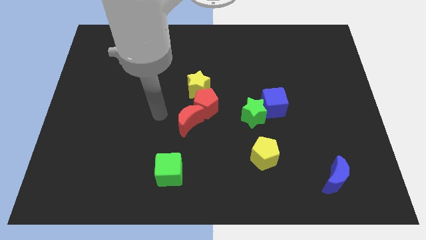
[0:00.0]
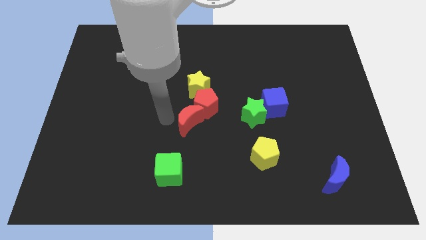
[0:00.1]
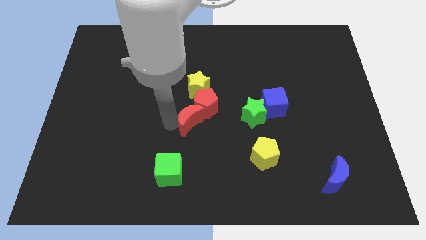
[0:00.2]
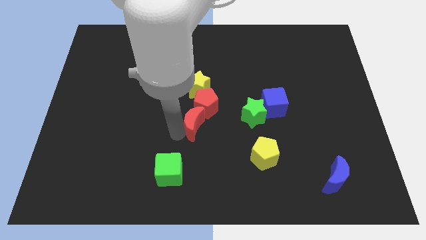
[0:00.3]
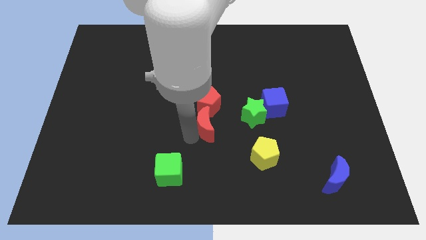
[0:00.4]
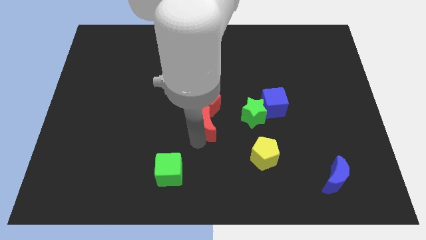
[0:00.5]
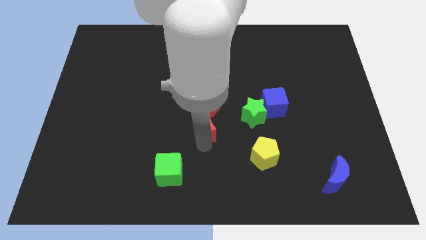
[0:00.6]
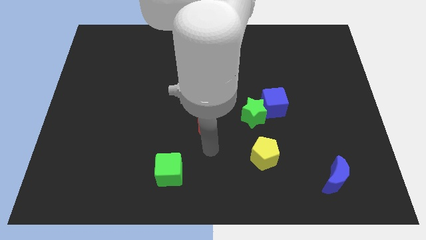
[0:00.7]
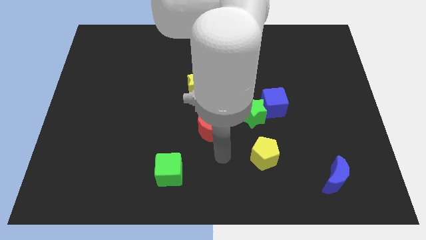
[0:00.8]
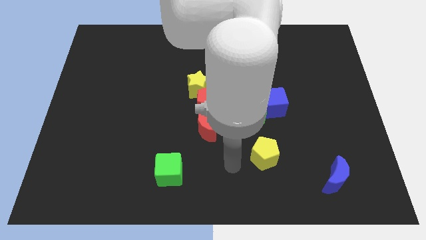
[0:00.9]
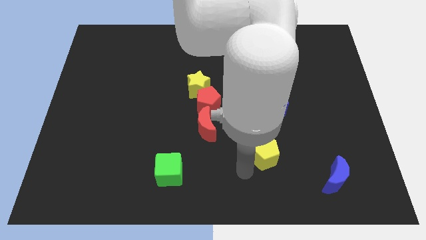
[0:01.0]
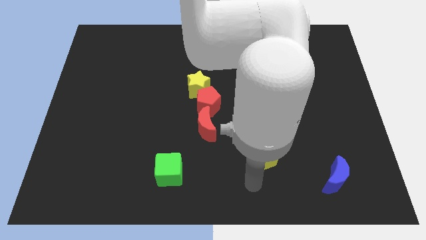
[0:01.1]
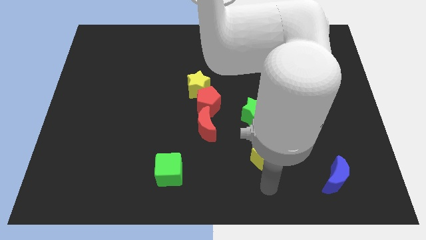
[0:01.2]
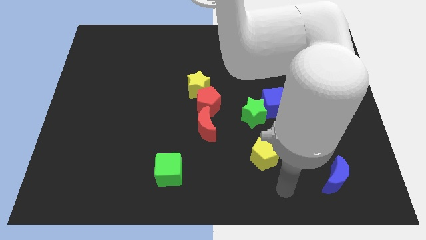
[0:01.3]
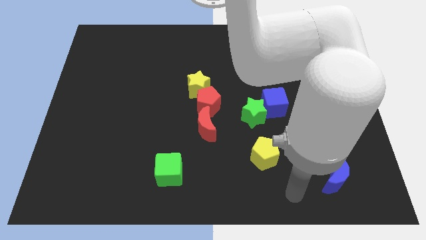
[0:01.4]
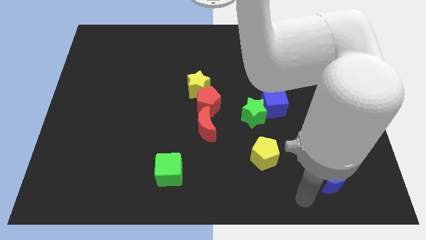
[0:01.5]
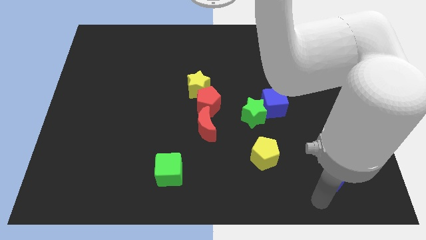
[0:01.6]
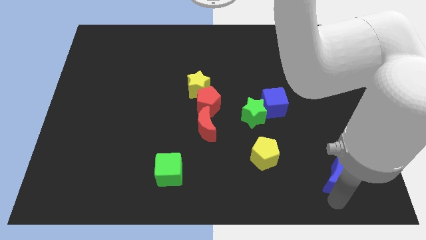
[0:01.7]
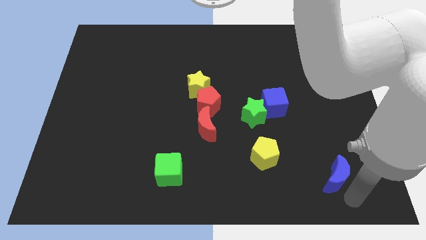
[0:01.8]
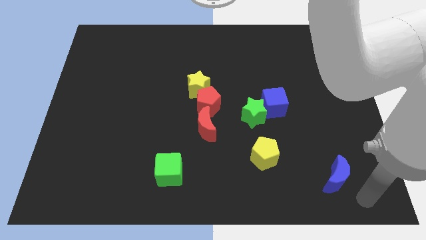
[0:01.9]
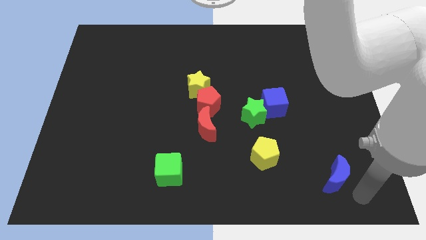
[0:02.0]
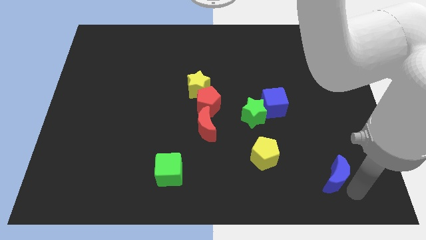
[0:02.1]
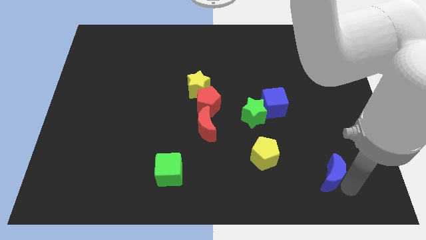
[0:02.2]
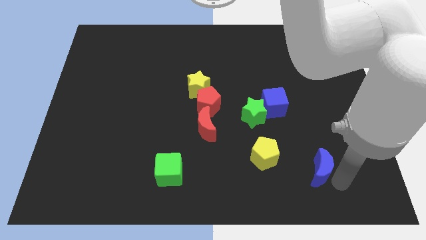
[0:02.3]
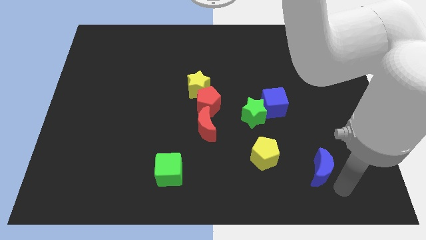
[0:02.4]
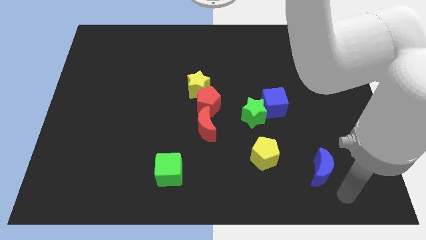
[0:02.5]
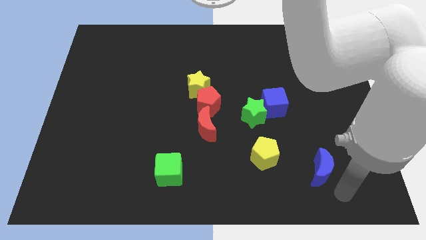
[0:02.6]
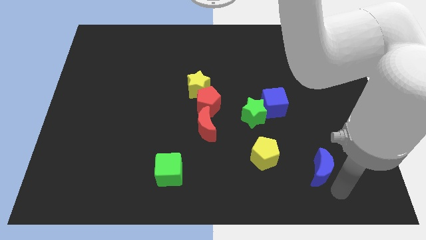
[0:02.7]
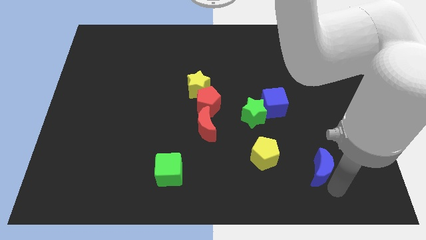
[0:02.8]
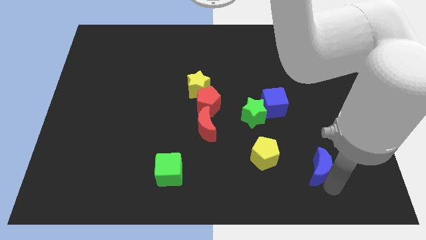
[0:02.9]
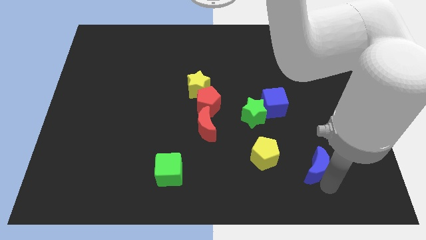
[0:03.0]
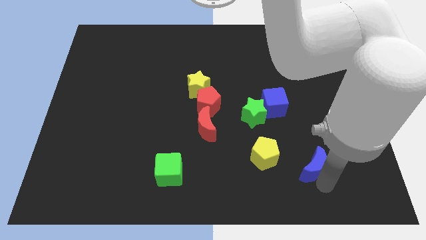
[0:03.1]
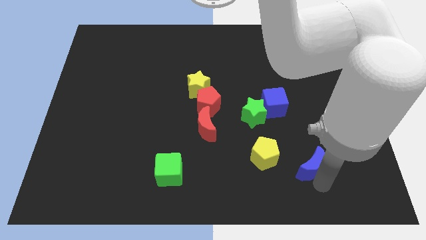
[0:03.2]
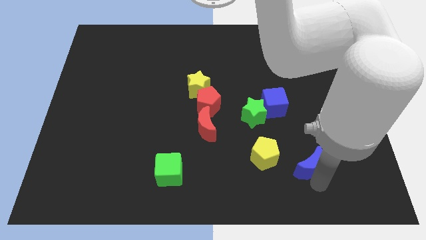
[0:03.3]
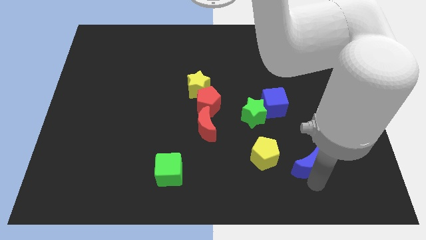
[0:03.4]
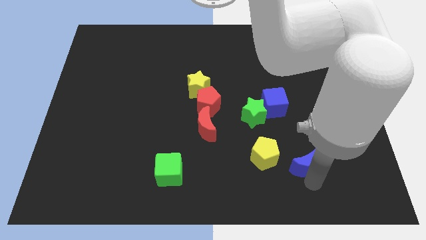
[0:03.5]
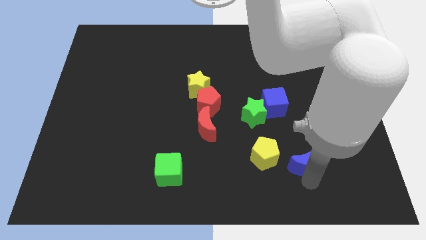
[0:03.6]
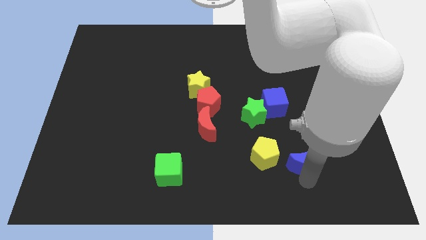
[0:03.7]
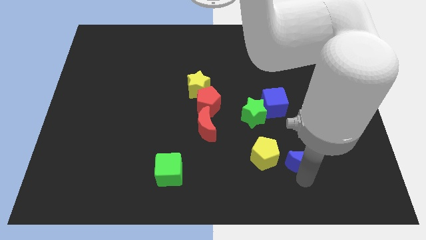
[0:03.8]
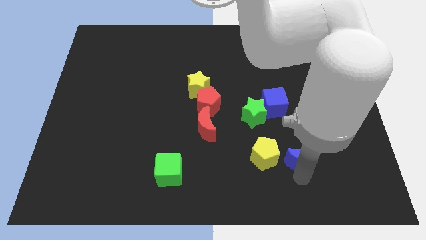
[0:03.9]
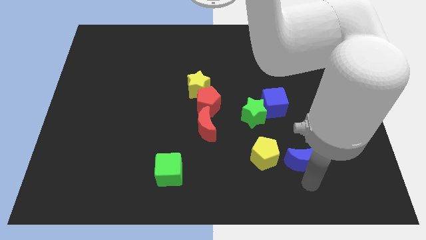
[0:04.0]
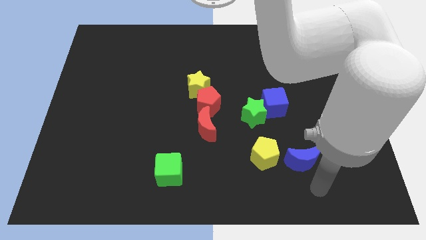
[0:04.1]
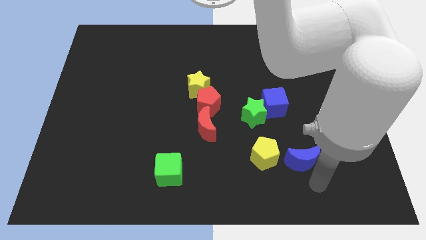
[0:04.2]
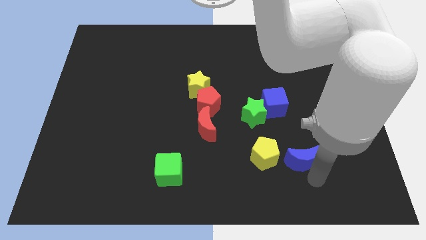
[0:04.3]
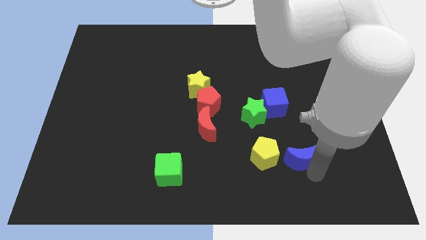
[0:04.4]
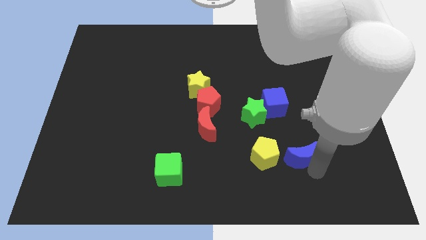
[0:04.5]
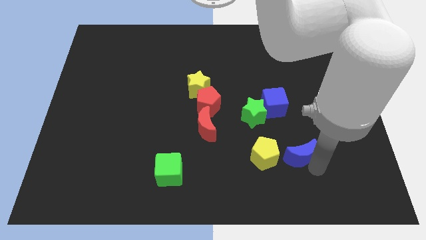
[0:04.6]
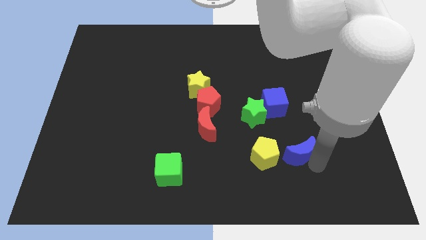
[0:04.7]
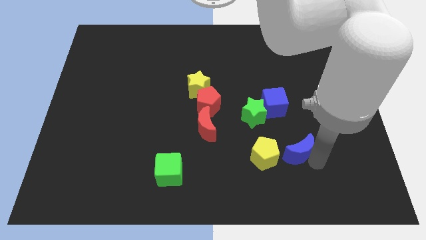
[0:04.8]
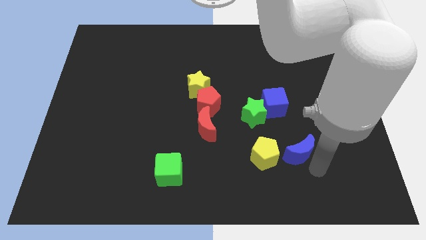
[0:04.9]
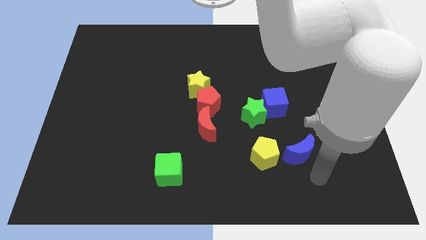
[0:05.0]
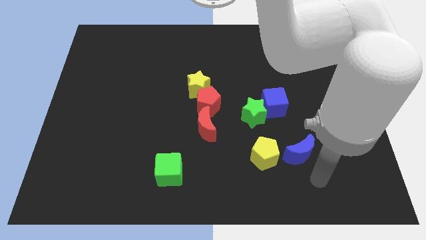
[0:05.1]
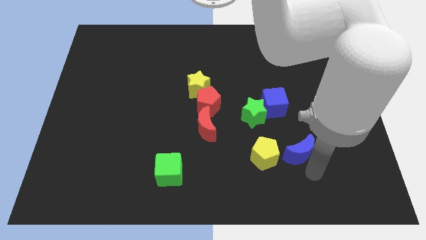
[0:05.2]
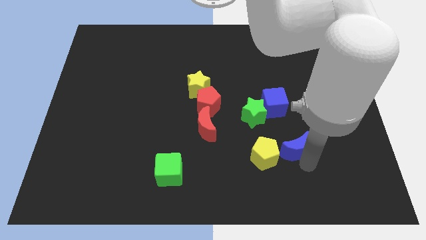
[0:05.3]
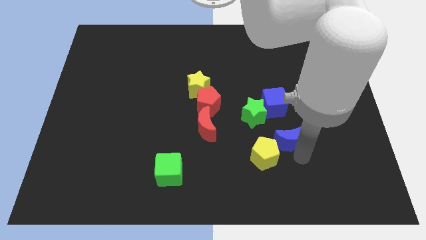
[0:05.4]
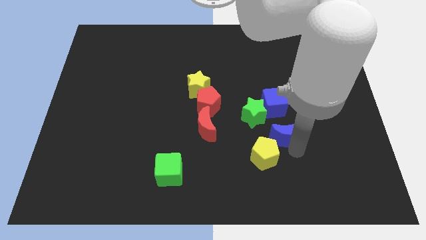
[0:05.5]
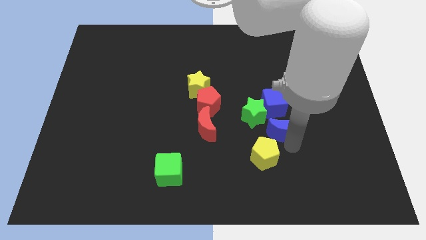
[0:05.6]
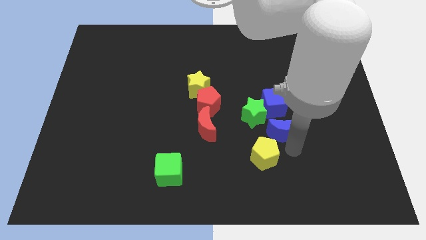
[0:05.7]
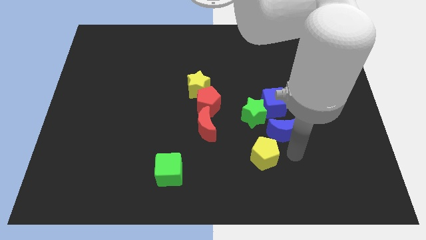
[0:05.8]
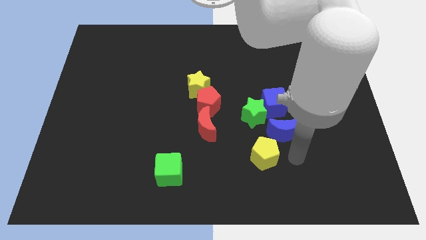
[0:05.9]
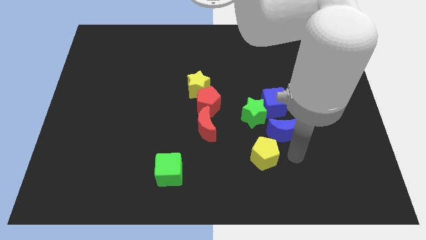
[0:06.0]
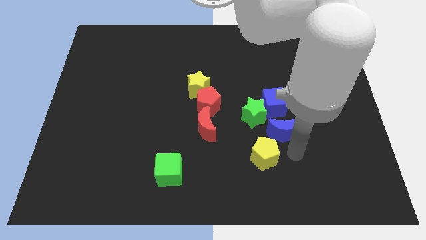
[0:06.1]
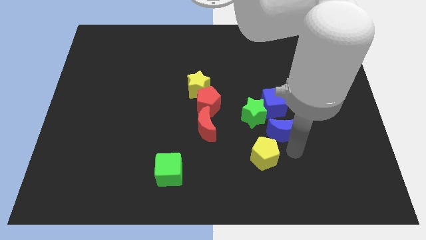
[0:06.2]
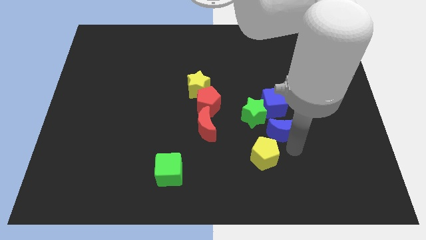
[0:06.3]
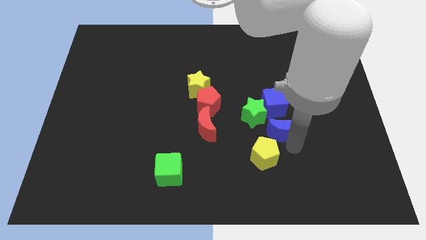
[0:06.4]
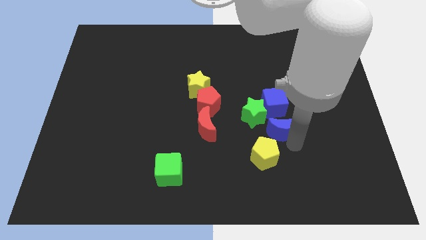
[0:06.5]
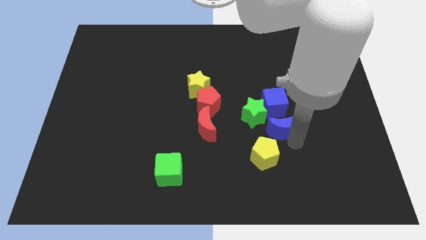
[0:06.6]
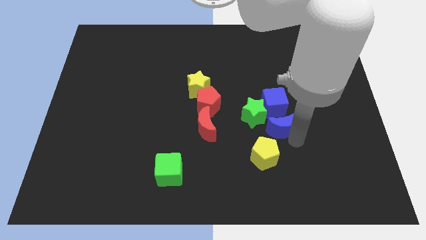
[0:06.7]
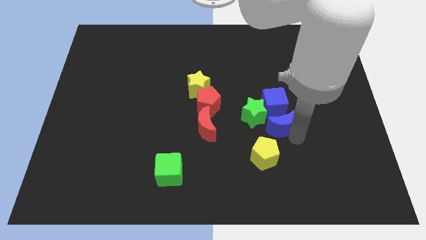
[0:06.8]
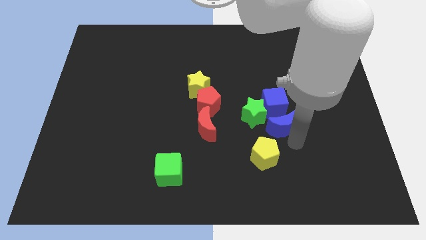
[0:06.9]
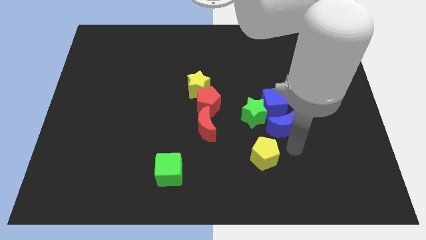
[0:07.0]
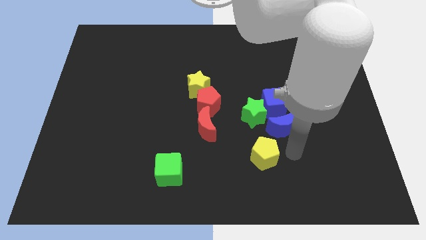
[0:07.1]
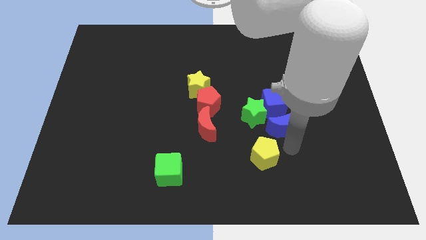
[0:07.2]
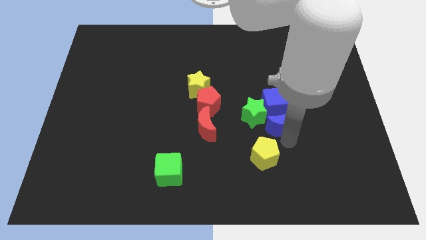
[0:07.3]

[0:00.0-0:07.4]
slide the blue moon close to the blue cube
